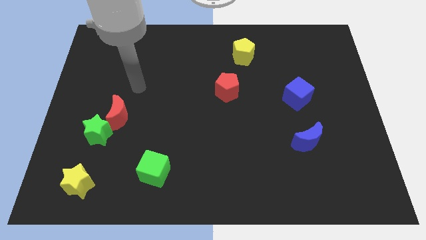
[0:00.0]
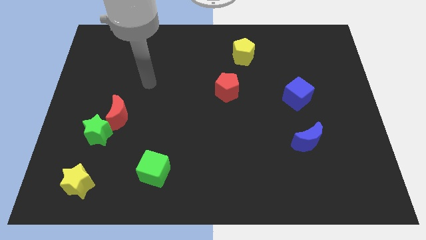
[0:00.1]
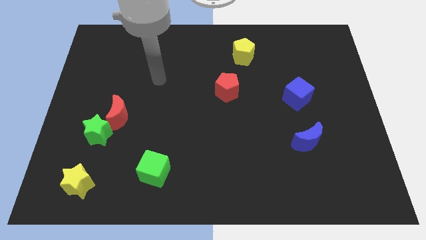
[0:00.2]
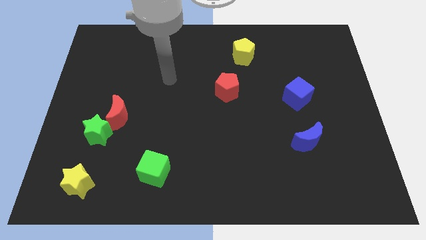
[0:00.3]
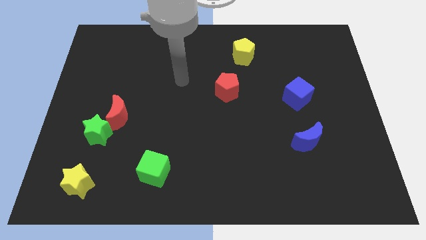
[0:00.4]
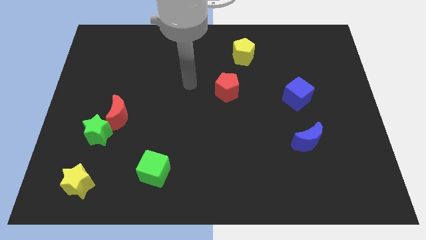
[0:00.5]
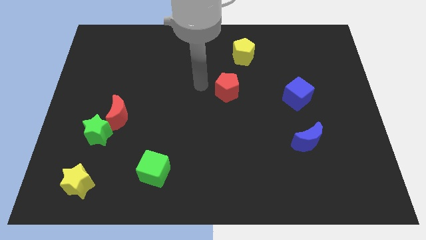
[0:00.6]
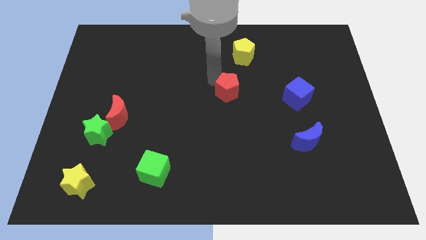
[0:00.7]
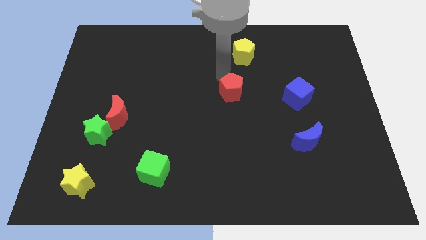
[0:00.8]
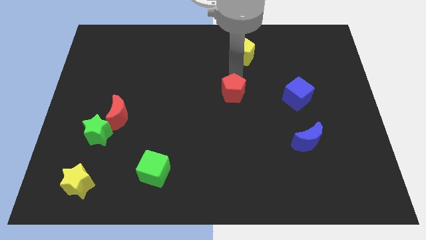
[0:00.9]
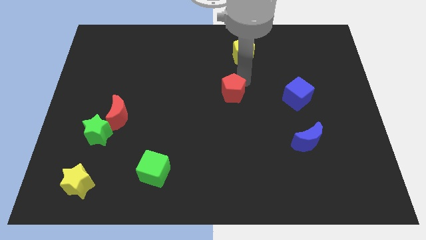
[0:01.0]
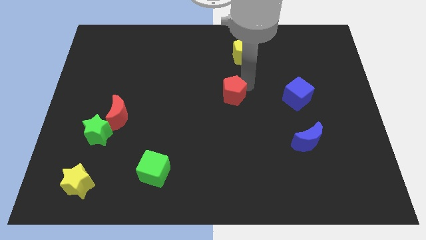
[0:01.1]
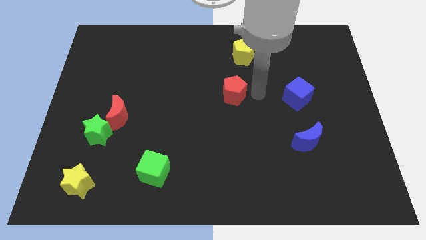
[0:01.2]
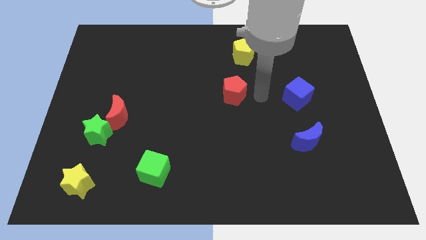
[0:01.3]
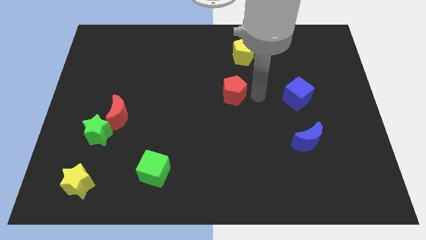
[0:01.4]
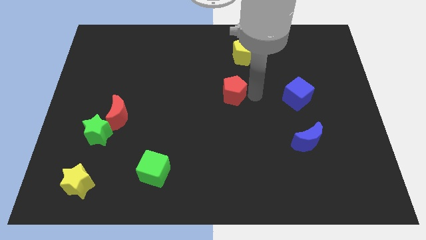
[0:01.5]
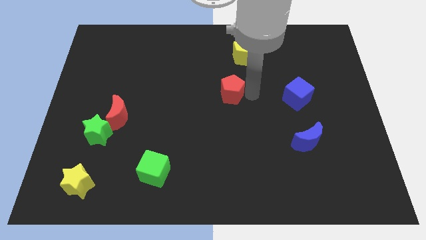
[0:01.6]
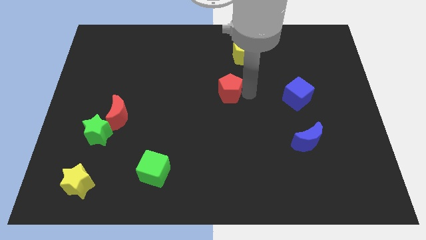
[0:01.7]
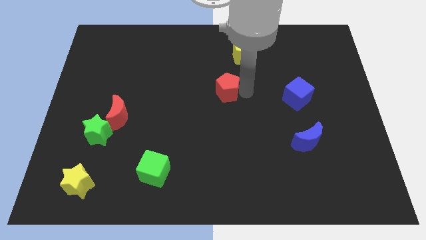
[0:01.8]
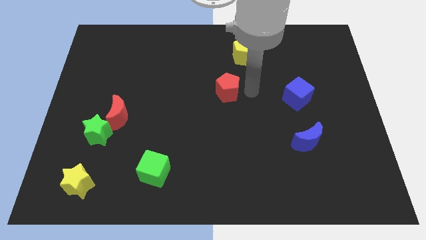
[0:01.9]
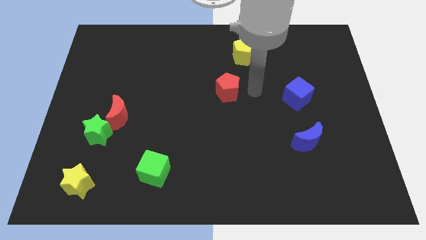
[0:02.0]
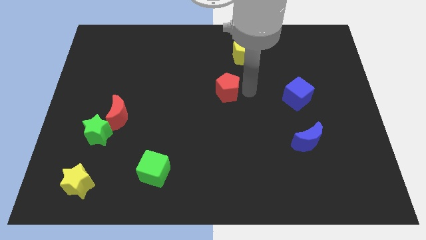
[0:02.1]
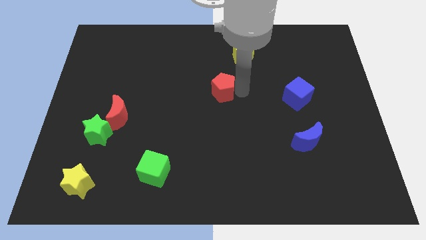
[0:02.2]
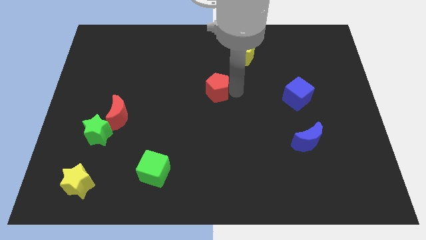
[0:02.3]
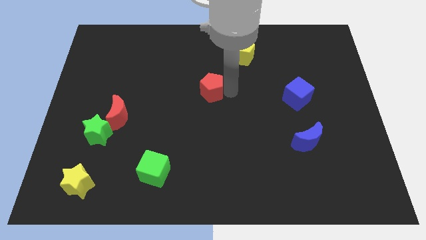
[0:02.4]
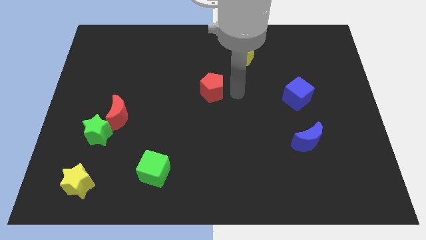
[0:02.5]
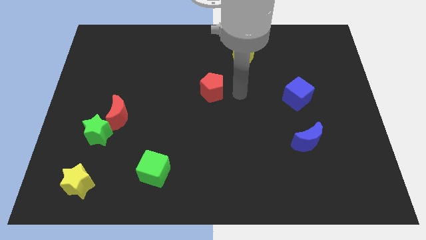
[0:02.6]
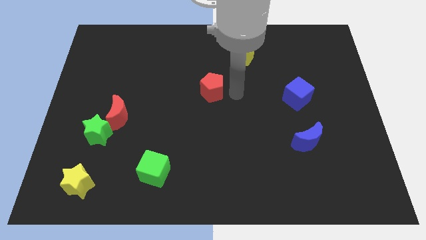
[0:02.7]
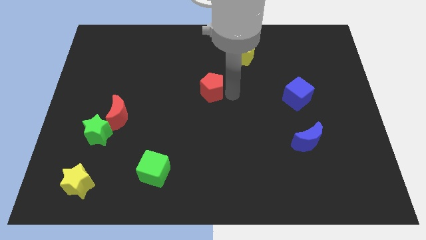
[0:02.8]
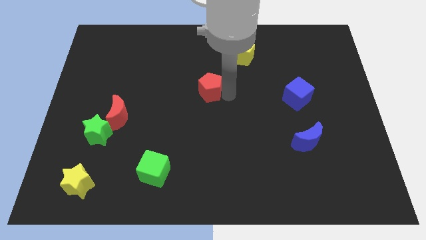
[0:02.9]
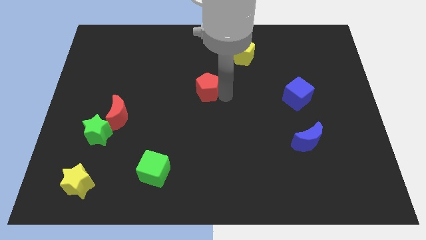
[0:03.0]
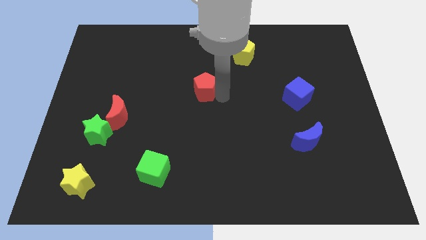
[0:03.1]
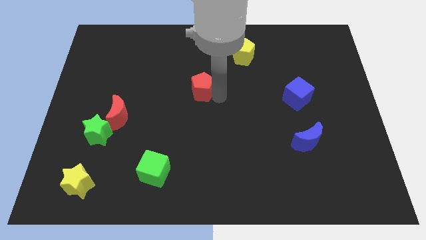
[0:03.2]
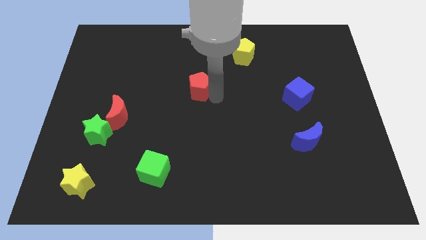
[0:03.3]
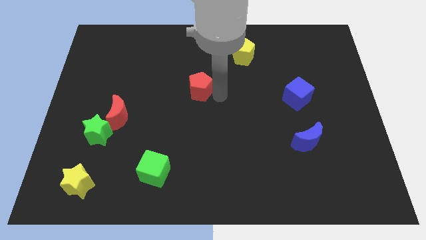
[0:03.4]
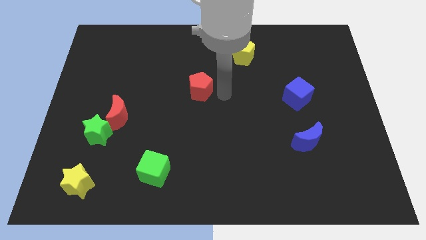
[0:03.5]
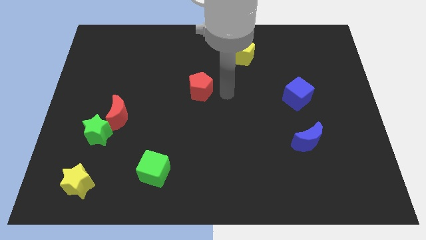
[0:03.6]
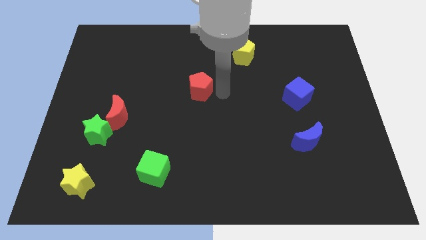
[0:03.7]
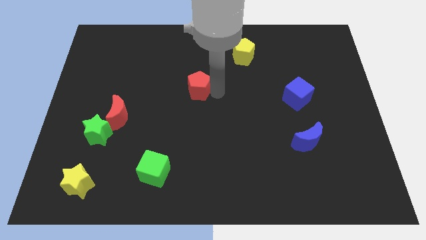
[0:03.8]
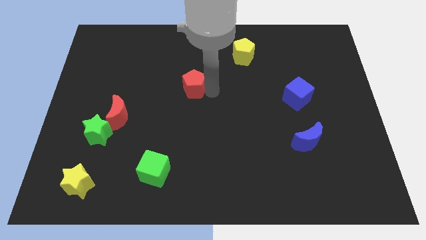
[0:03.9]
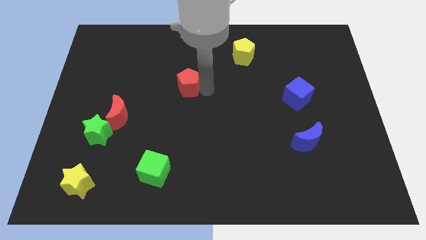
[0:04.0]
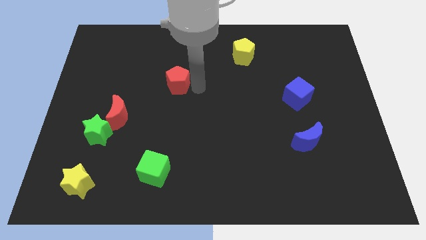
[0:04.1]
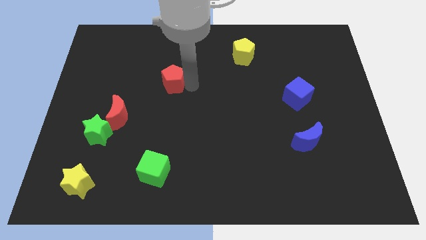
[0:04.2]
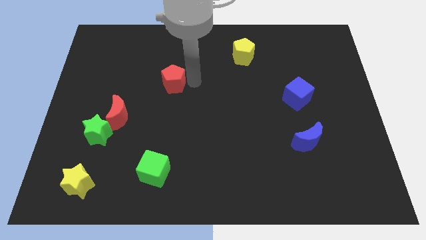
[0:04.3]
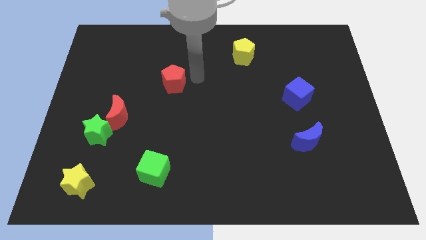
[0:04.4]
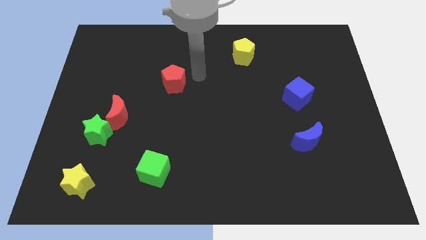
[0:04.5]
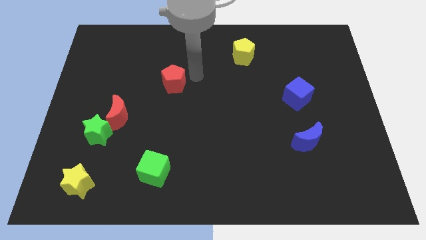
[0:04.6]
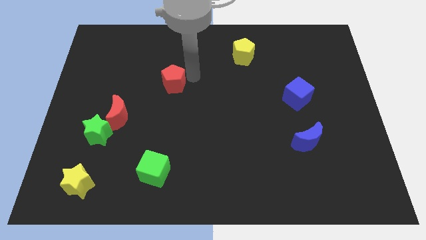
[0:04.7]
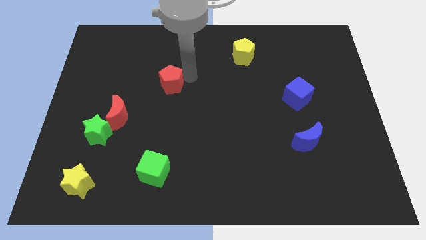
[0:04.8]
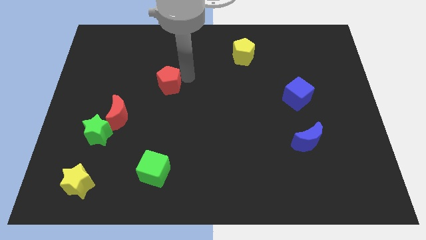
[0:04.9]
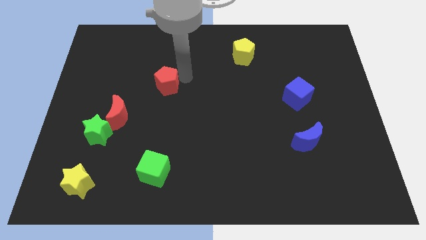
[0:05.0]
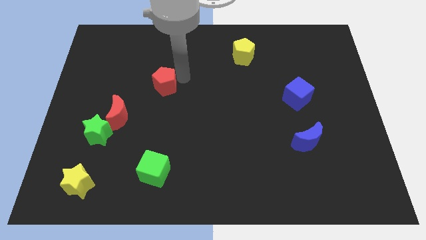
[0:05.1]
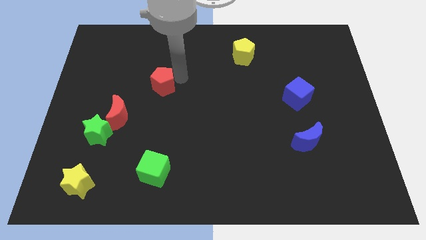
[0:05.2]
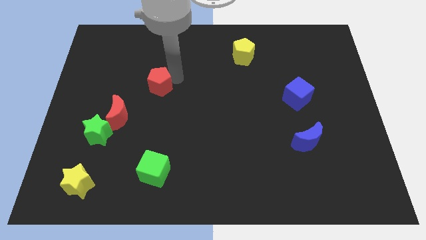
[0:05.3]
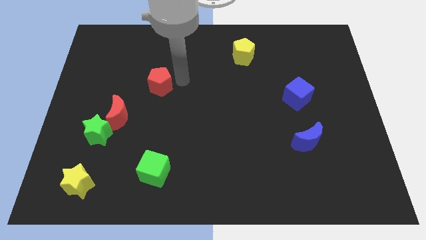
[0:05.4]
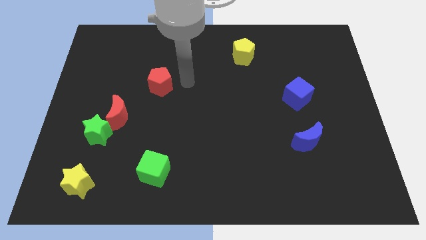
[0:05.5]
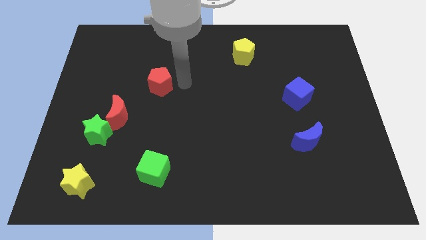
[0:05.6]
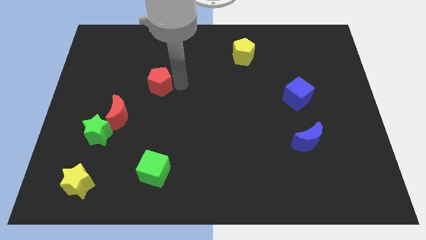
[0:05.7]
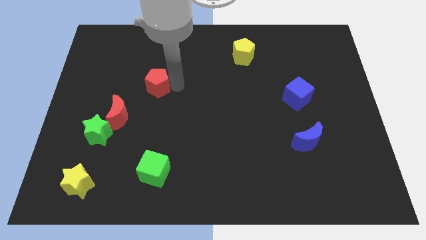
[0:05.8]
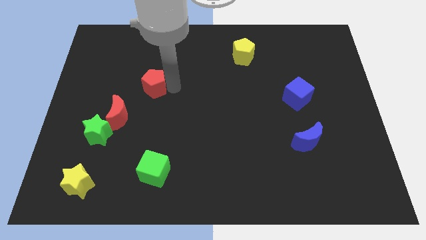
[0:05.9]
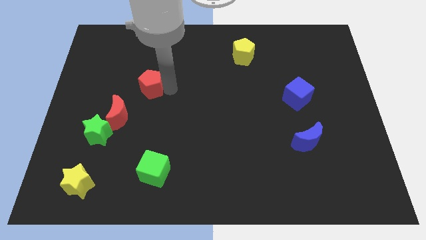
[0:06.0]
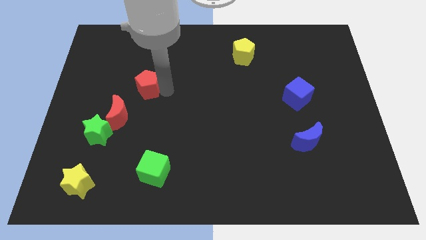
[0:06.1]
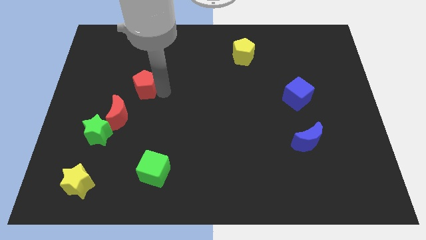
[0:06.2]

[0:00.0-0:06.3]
push the red pentagon left

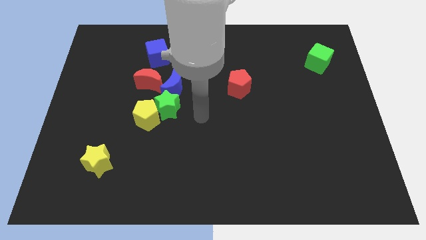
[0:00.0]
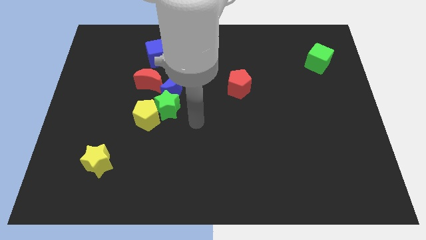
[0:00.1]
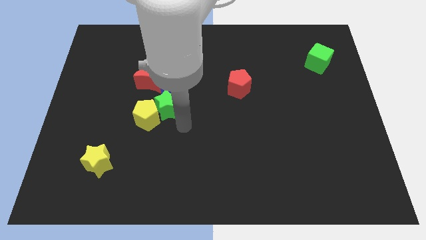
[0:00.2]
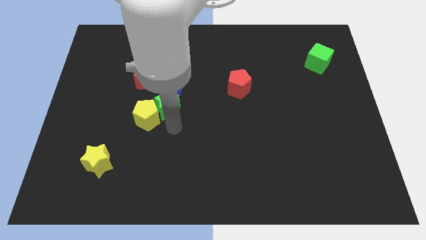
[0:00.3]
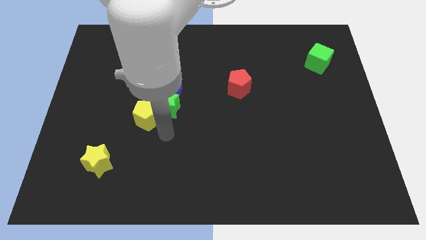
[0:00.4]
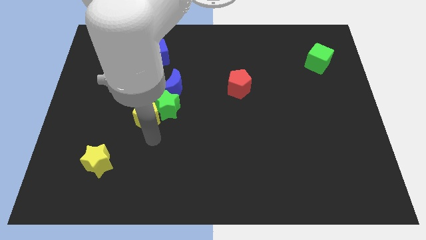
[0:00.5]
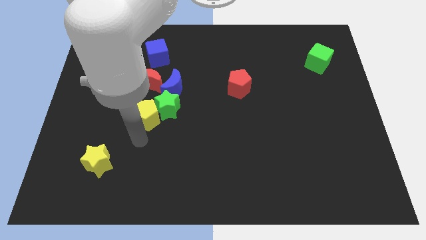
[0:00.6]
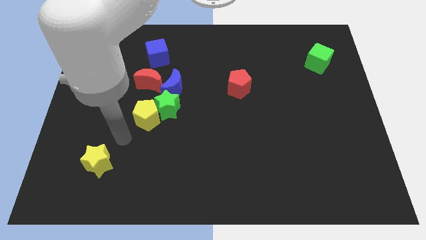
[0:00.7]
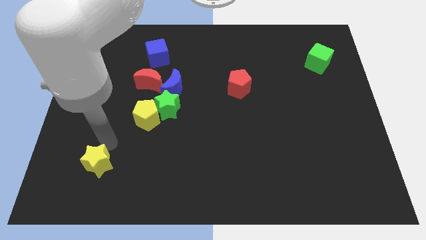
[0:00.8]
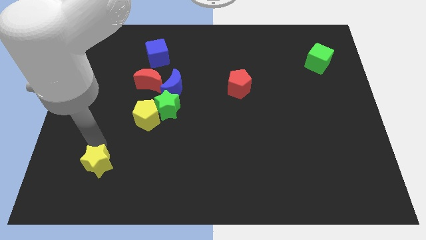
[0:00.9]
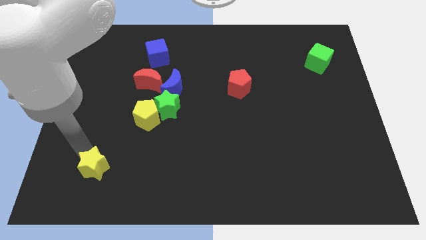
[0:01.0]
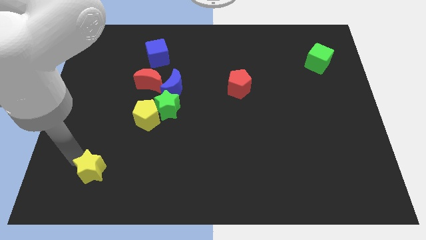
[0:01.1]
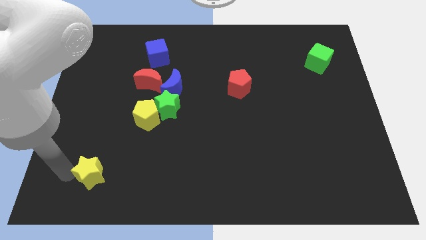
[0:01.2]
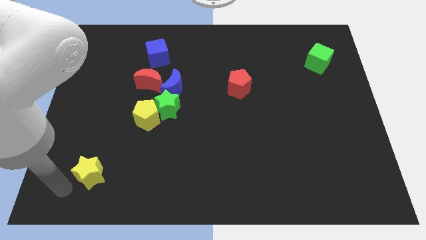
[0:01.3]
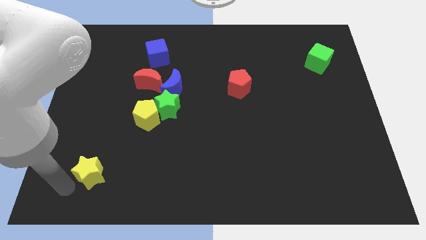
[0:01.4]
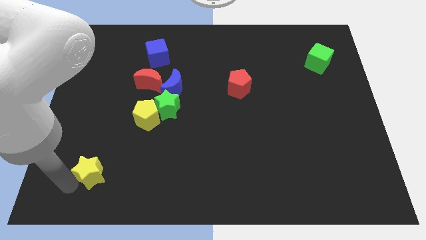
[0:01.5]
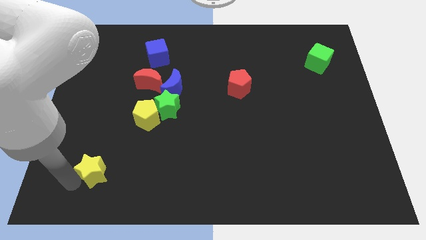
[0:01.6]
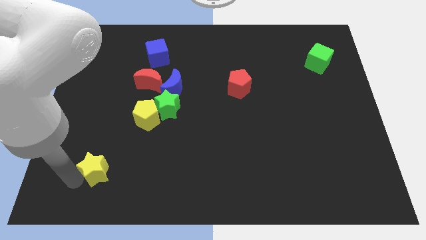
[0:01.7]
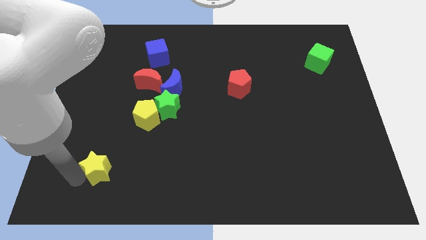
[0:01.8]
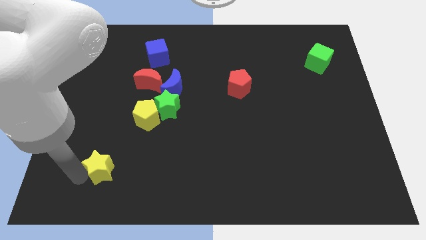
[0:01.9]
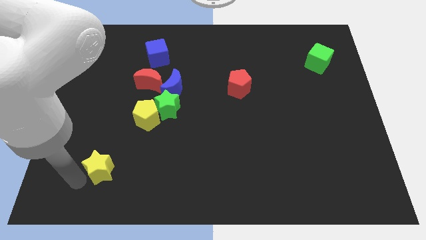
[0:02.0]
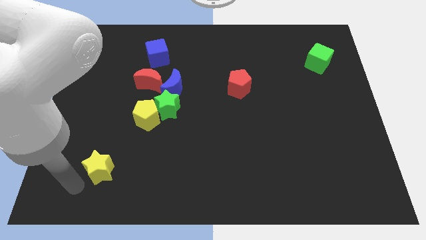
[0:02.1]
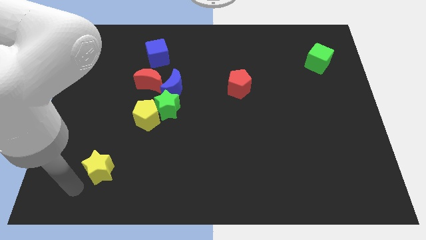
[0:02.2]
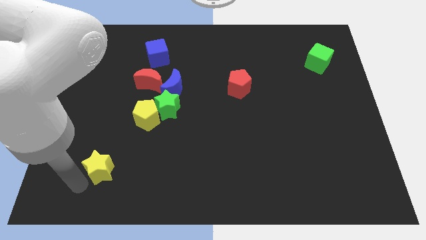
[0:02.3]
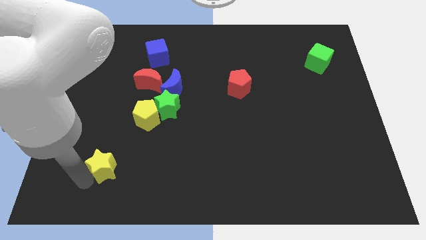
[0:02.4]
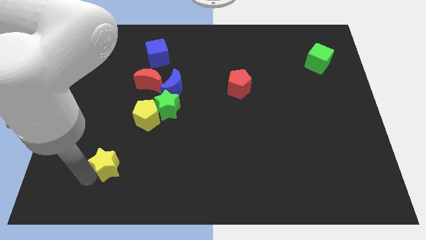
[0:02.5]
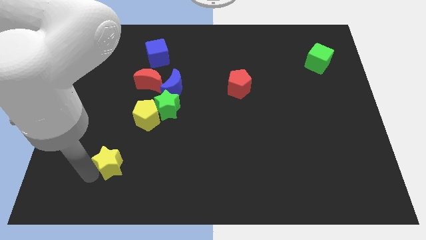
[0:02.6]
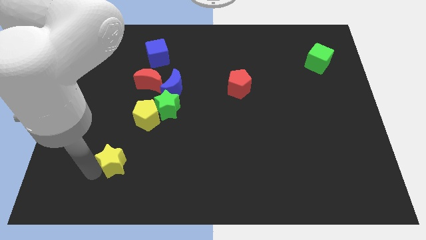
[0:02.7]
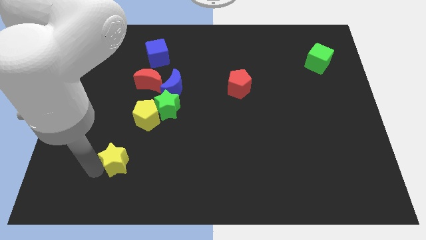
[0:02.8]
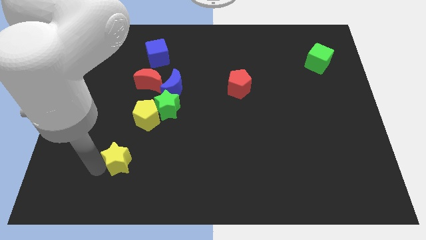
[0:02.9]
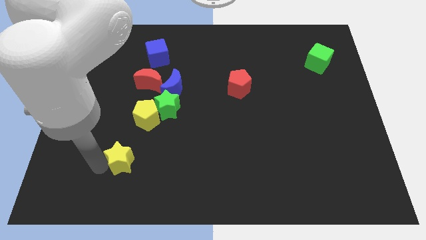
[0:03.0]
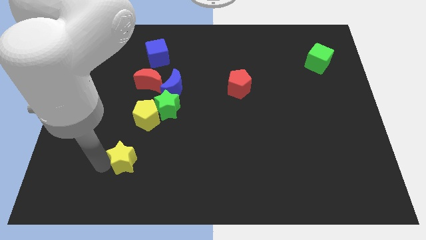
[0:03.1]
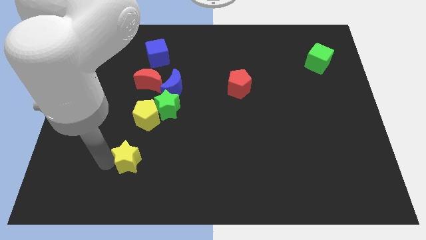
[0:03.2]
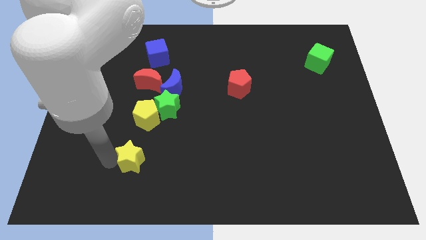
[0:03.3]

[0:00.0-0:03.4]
push the yellow star slightly to the right
